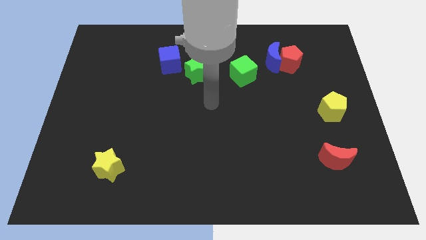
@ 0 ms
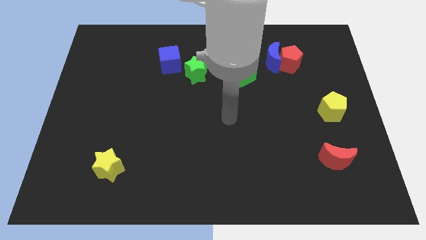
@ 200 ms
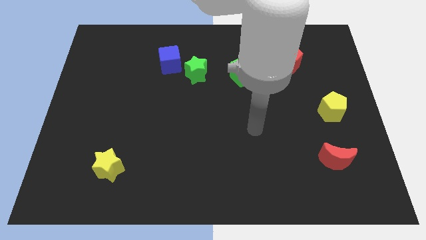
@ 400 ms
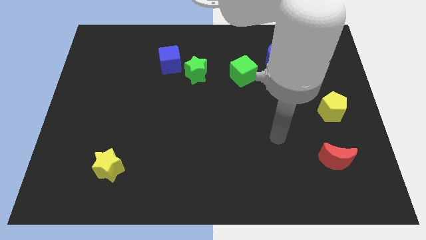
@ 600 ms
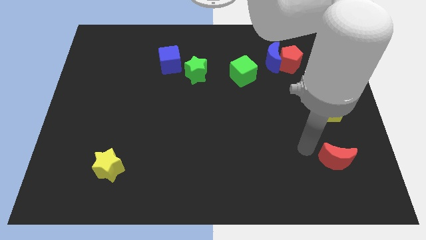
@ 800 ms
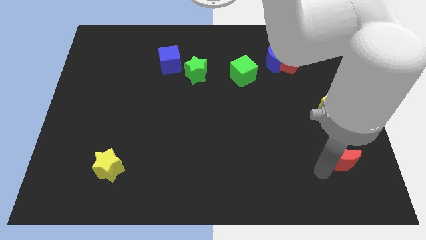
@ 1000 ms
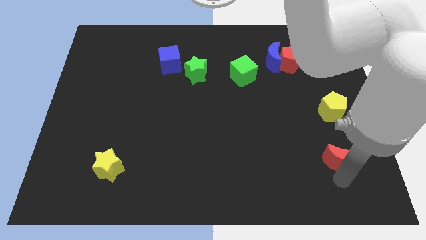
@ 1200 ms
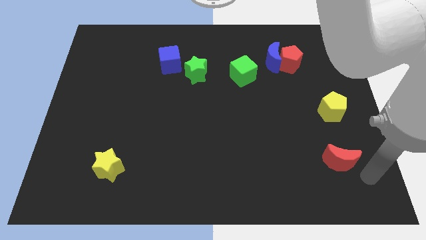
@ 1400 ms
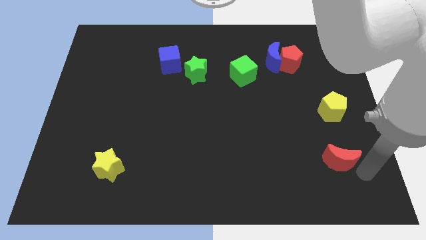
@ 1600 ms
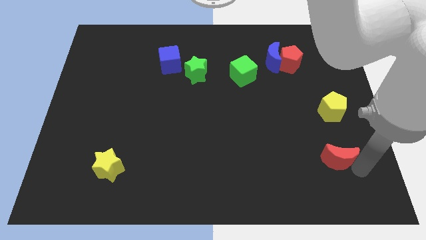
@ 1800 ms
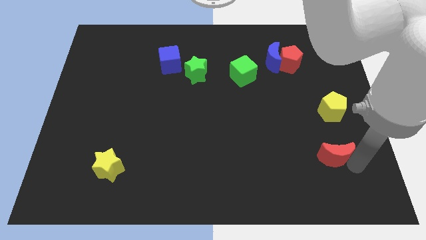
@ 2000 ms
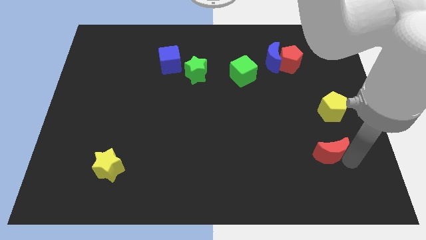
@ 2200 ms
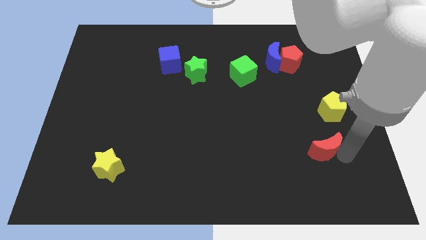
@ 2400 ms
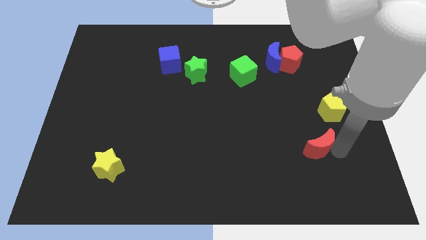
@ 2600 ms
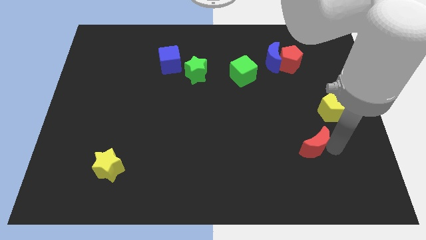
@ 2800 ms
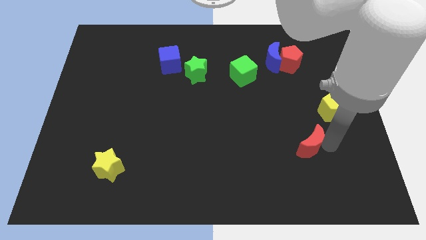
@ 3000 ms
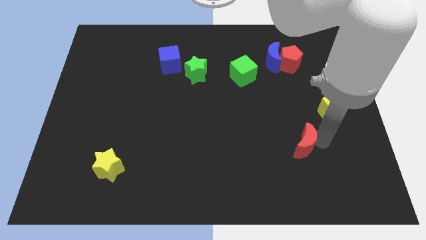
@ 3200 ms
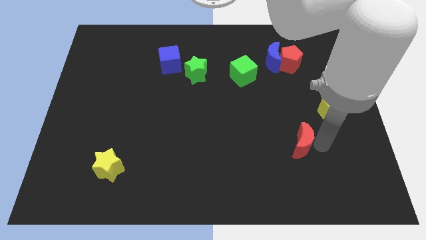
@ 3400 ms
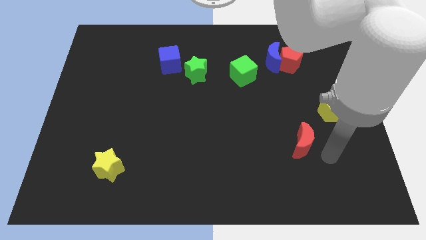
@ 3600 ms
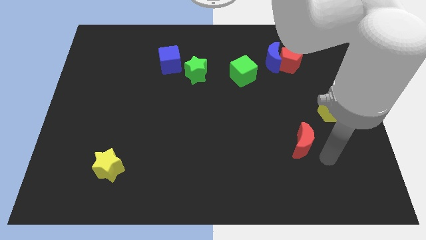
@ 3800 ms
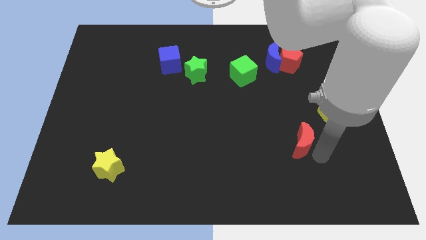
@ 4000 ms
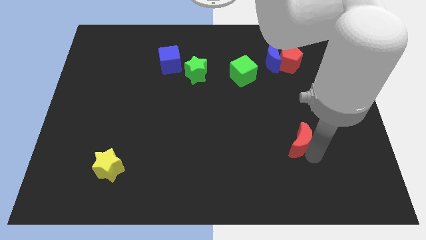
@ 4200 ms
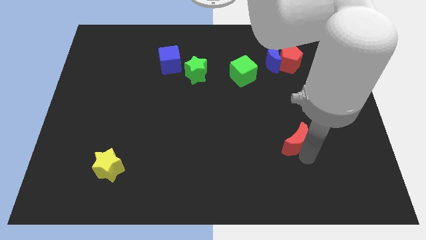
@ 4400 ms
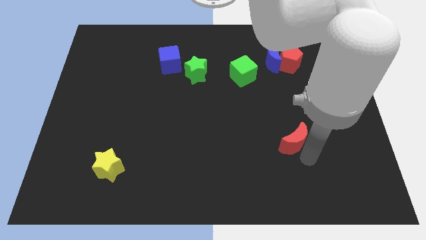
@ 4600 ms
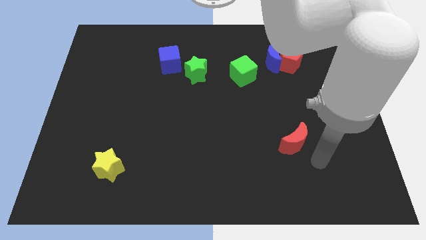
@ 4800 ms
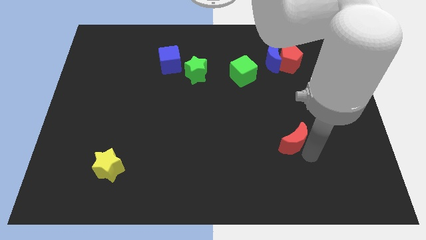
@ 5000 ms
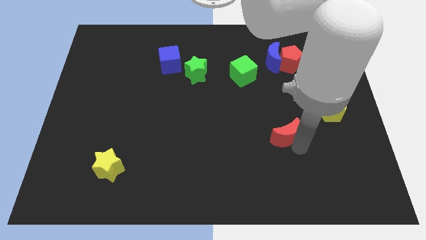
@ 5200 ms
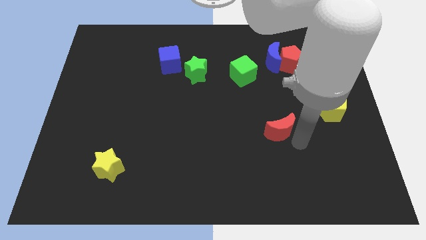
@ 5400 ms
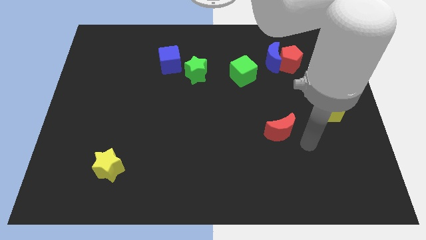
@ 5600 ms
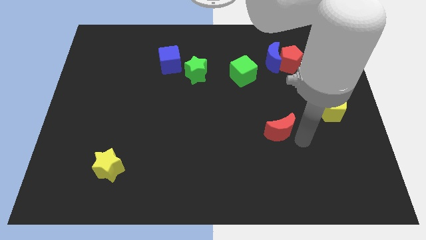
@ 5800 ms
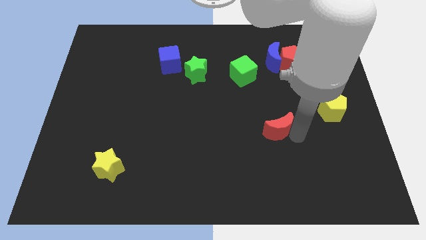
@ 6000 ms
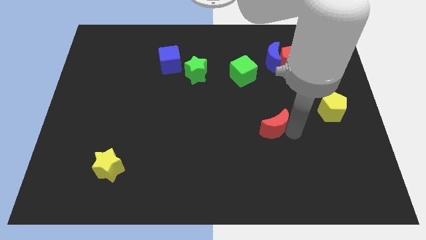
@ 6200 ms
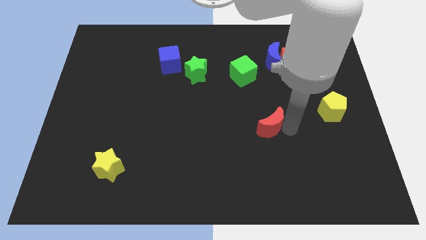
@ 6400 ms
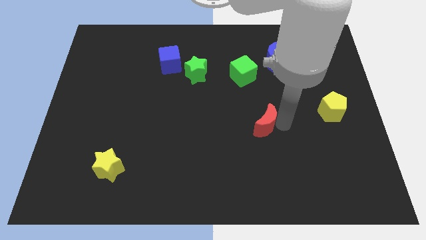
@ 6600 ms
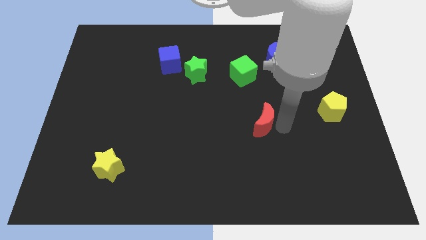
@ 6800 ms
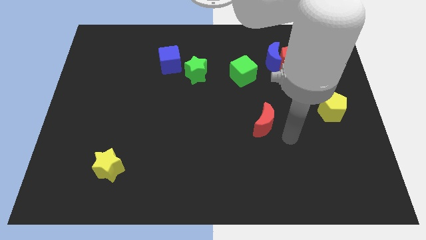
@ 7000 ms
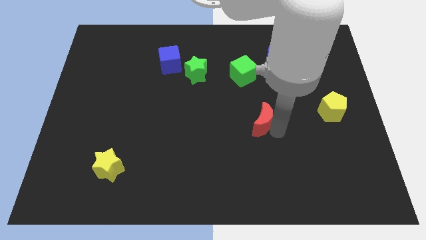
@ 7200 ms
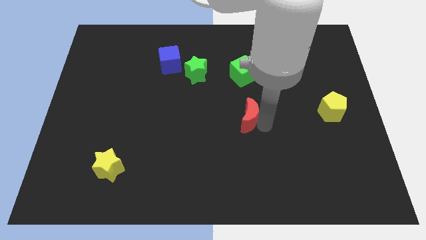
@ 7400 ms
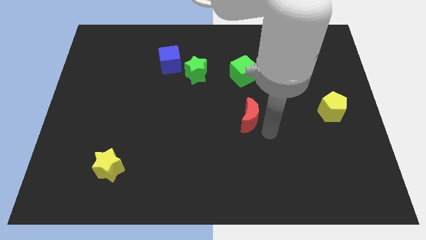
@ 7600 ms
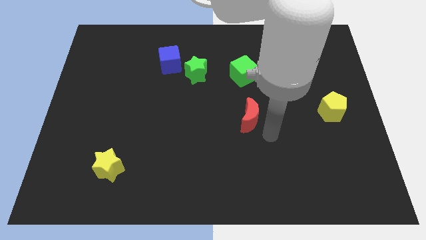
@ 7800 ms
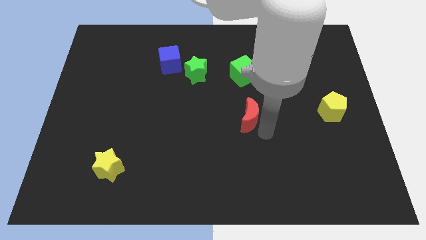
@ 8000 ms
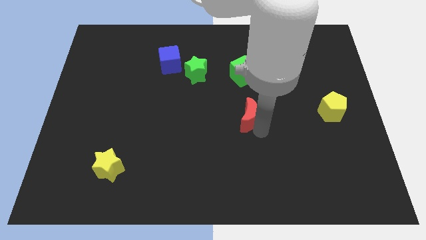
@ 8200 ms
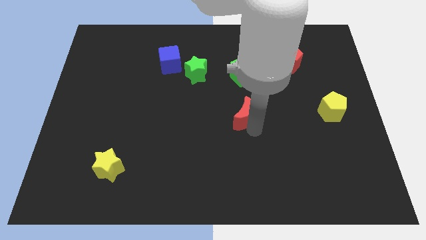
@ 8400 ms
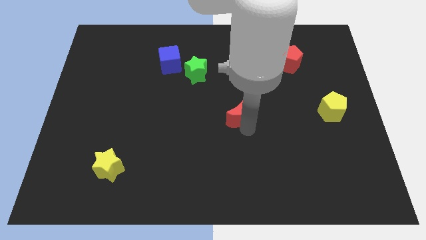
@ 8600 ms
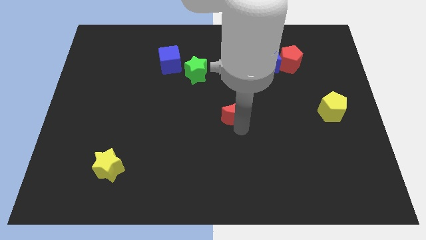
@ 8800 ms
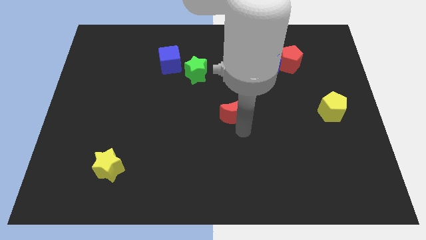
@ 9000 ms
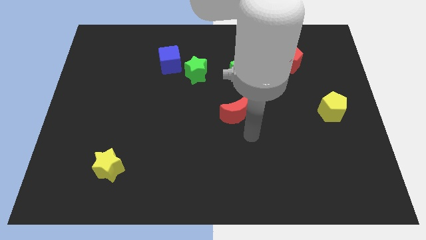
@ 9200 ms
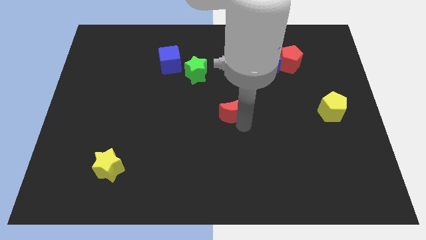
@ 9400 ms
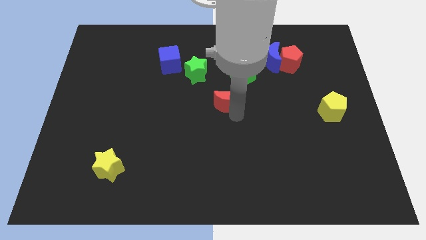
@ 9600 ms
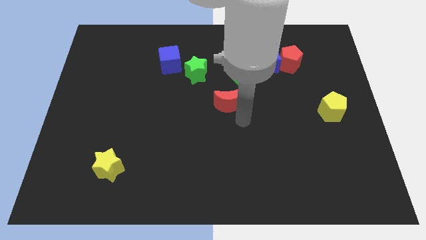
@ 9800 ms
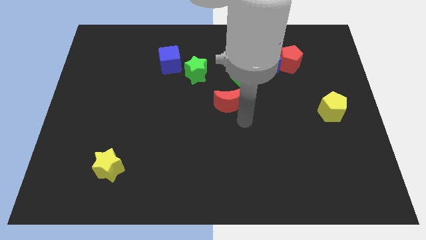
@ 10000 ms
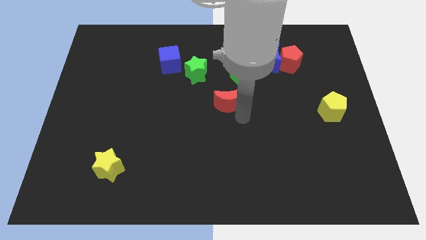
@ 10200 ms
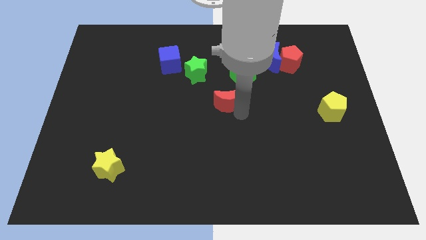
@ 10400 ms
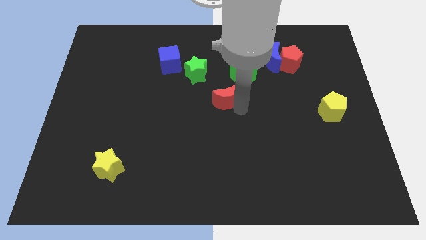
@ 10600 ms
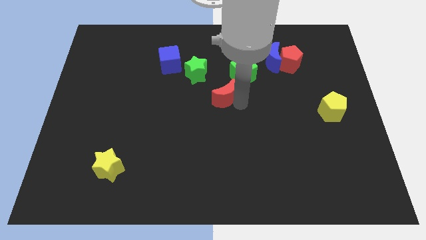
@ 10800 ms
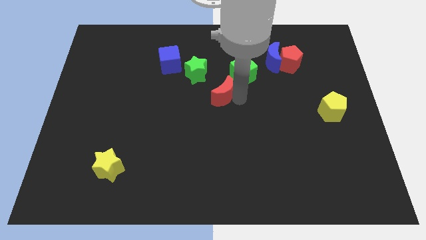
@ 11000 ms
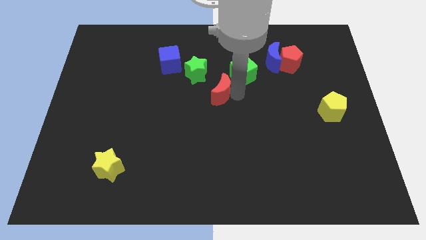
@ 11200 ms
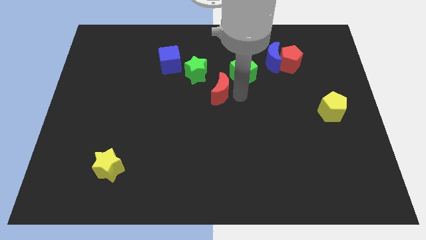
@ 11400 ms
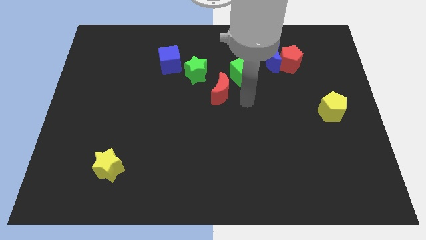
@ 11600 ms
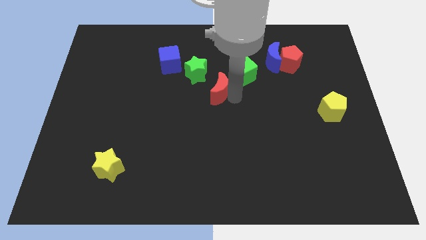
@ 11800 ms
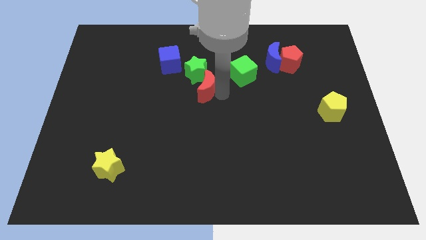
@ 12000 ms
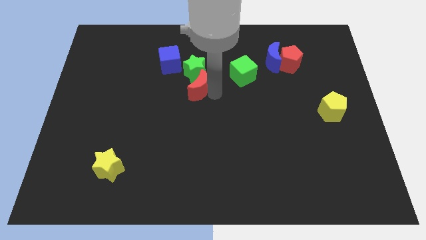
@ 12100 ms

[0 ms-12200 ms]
slide the red moon to the bottom right side of the blue cube

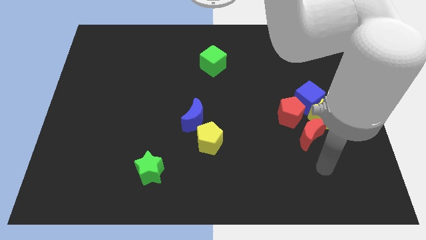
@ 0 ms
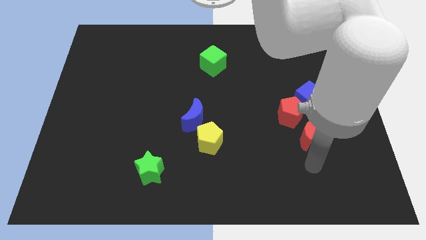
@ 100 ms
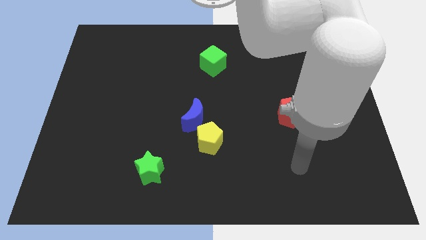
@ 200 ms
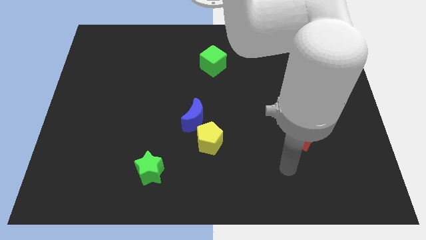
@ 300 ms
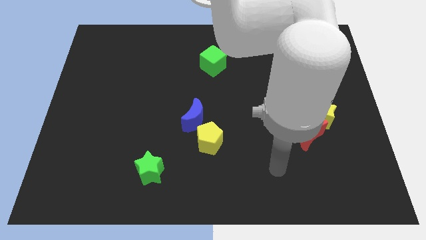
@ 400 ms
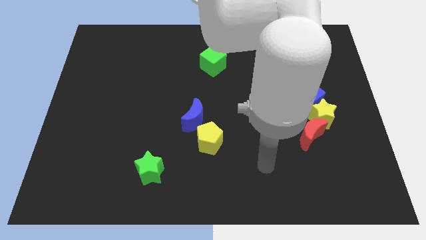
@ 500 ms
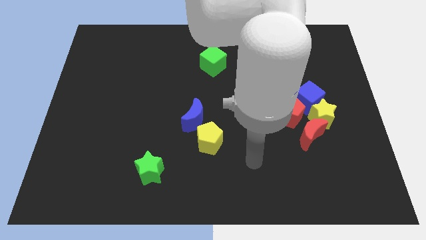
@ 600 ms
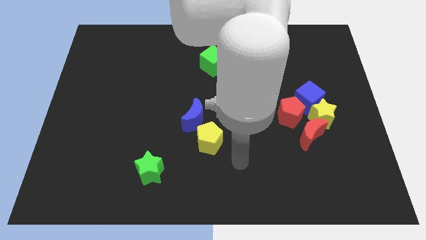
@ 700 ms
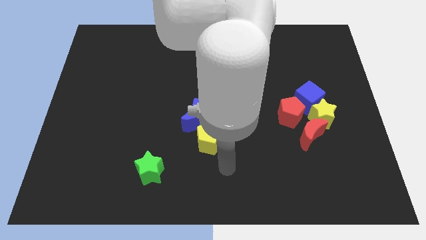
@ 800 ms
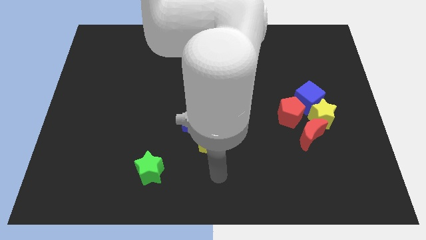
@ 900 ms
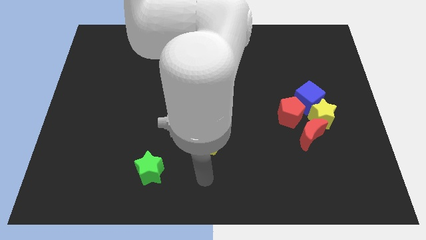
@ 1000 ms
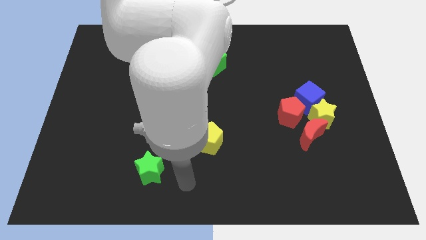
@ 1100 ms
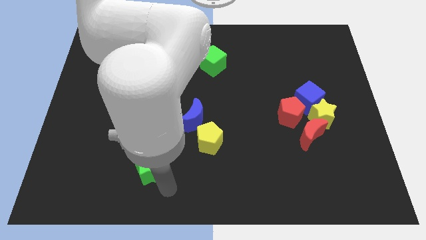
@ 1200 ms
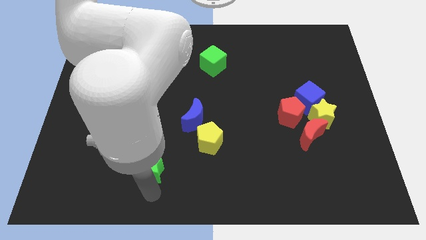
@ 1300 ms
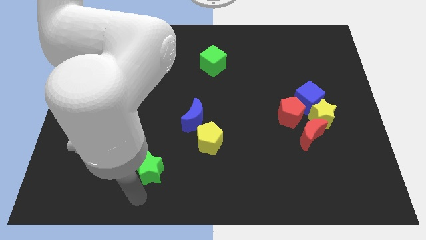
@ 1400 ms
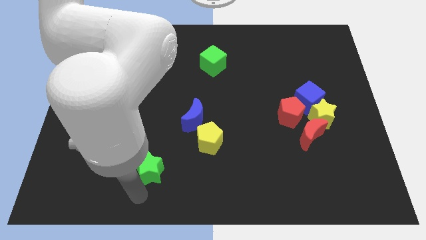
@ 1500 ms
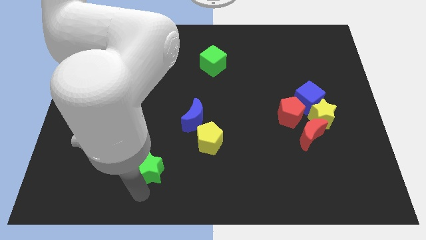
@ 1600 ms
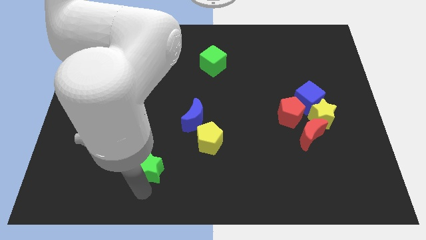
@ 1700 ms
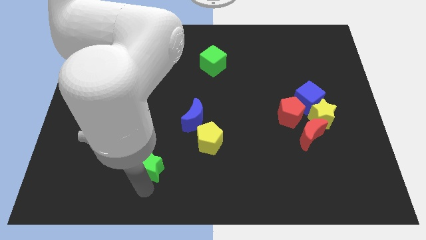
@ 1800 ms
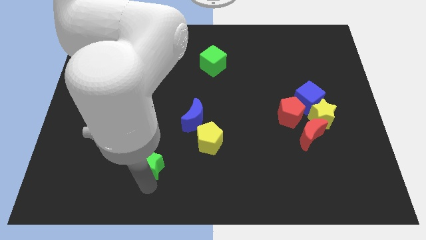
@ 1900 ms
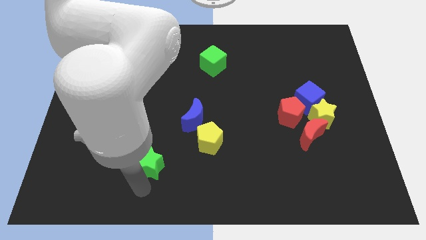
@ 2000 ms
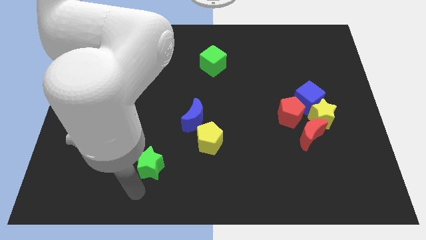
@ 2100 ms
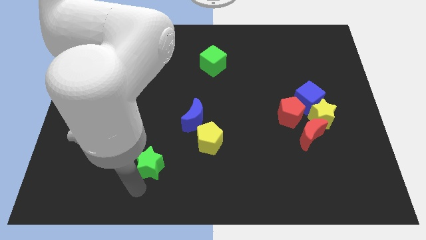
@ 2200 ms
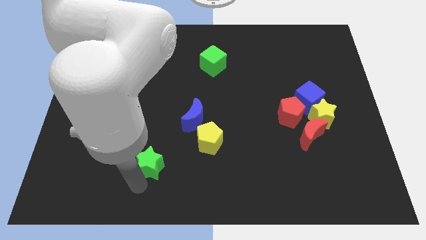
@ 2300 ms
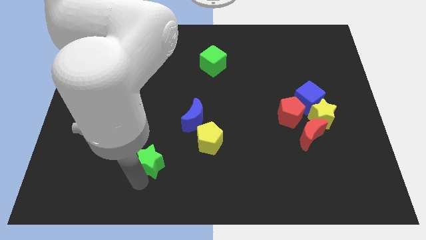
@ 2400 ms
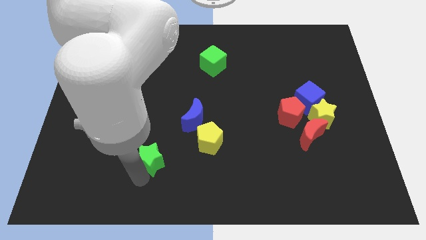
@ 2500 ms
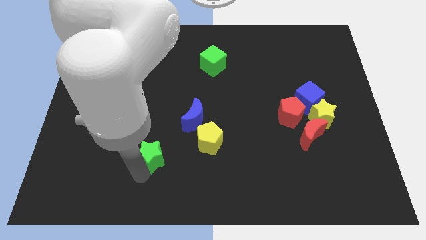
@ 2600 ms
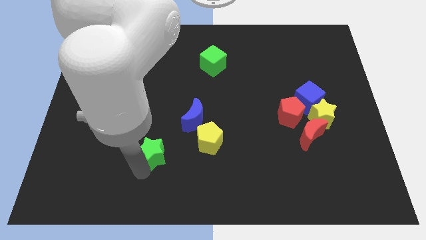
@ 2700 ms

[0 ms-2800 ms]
slide the green star diagonally down and to the left of the blue moon
